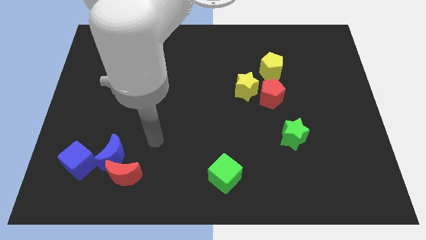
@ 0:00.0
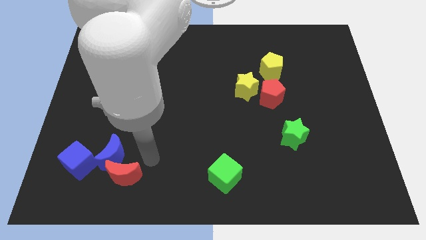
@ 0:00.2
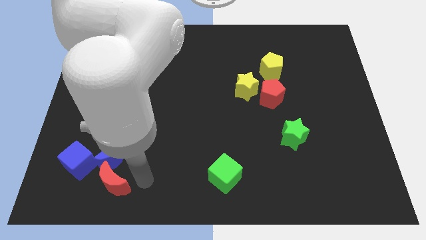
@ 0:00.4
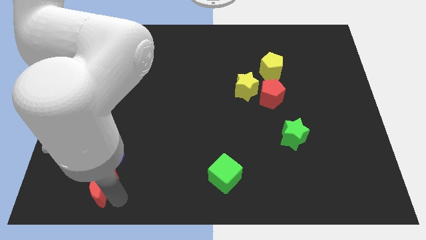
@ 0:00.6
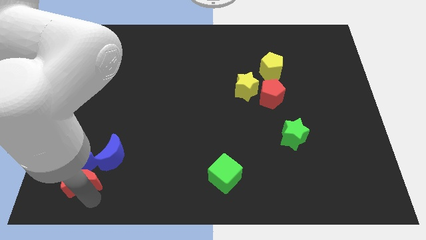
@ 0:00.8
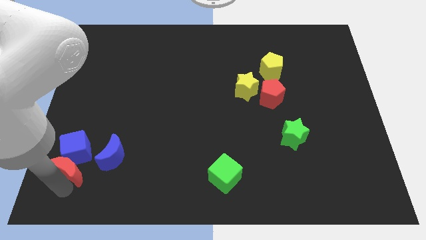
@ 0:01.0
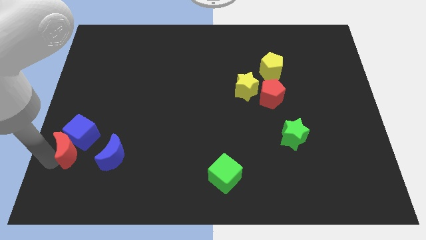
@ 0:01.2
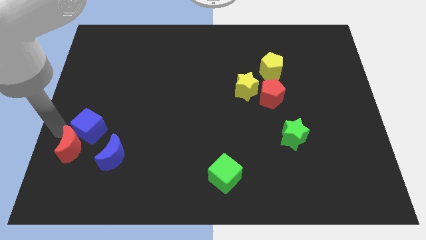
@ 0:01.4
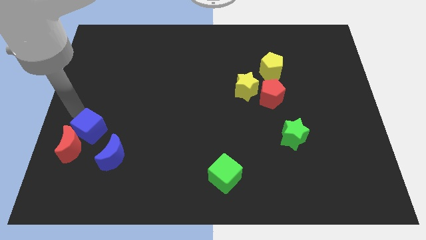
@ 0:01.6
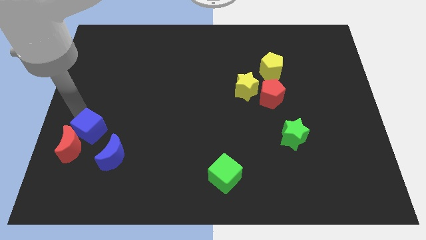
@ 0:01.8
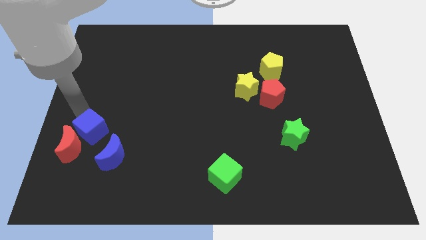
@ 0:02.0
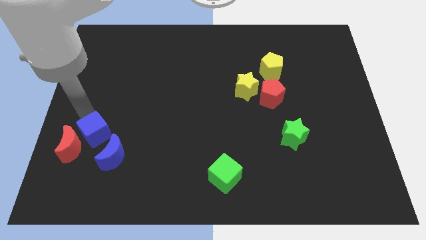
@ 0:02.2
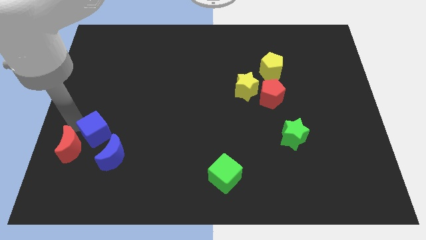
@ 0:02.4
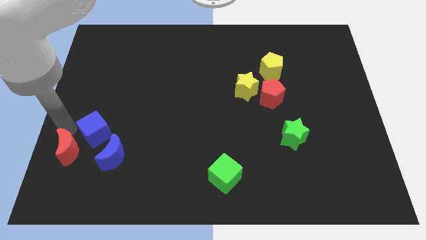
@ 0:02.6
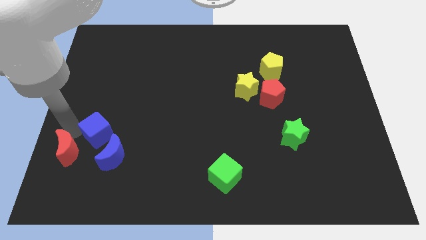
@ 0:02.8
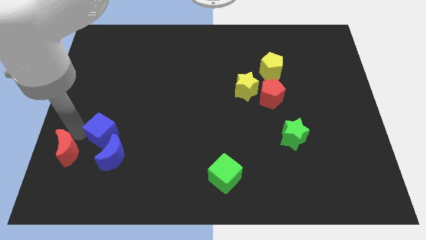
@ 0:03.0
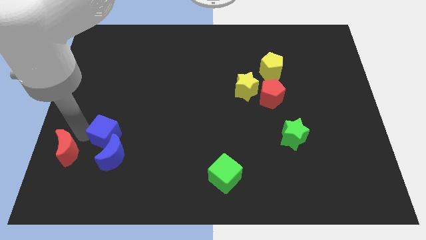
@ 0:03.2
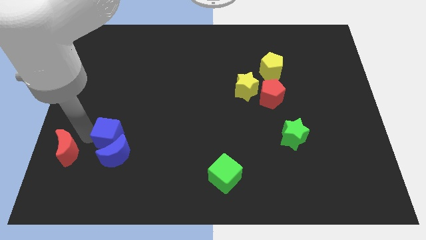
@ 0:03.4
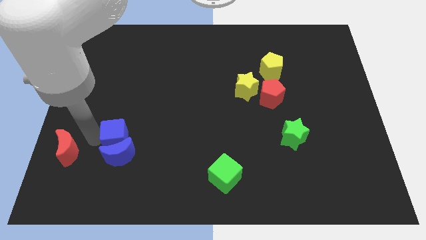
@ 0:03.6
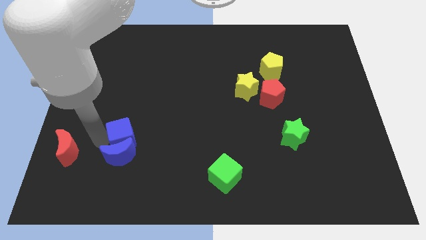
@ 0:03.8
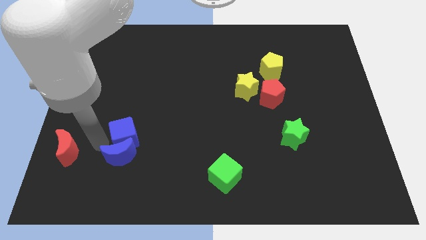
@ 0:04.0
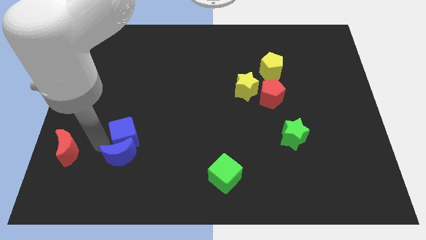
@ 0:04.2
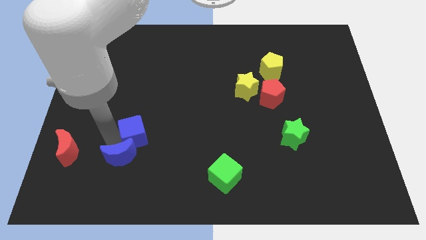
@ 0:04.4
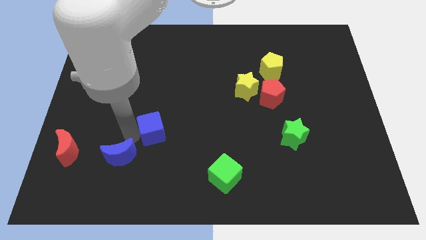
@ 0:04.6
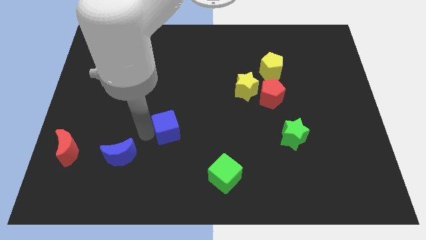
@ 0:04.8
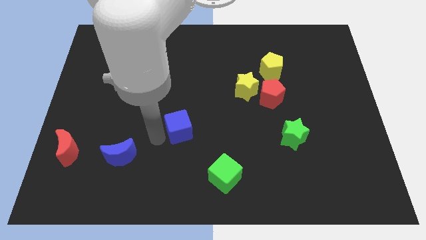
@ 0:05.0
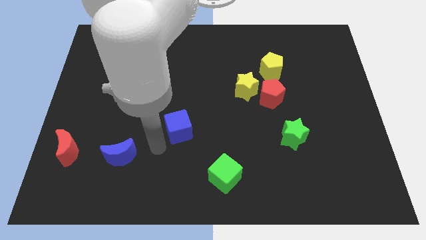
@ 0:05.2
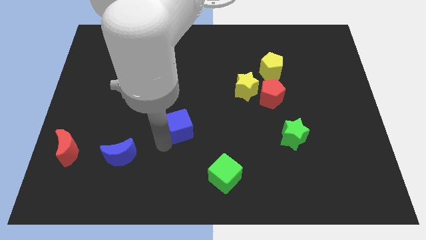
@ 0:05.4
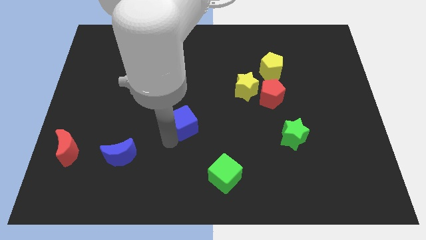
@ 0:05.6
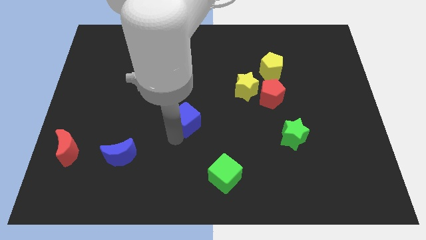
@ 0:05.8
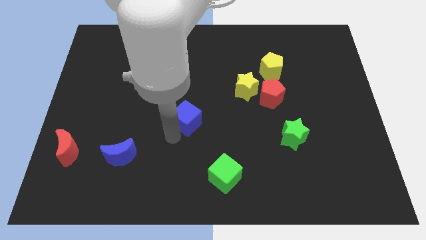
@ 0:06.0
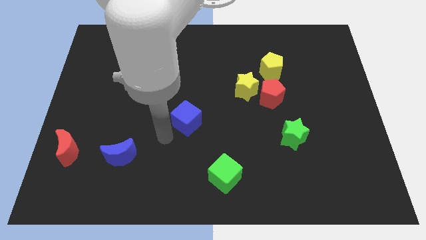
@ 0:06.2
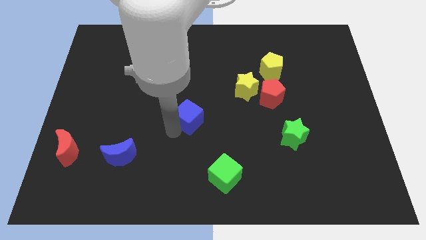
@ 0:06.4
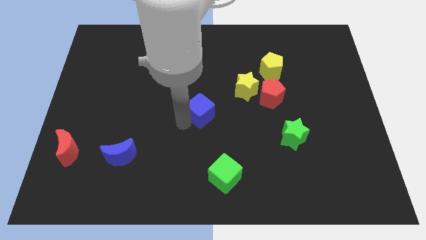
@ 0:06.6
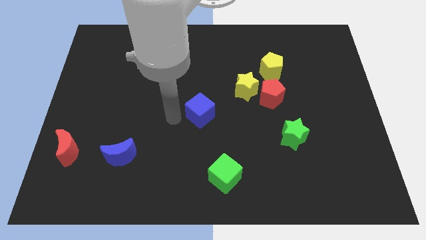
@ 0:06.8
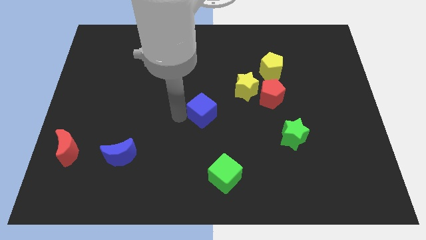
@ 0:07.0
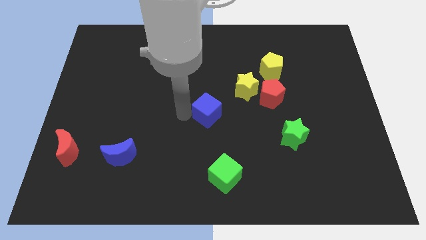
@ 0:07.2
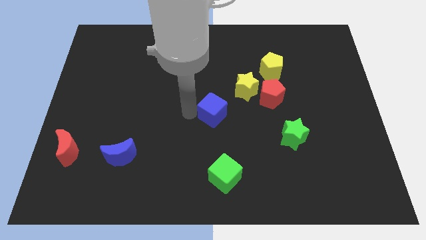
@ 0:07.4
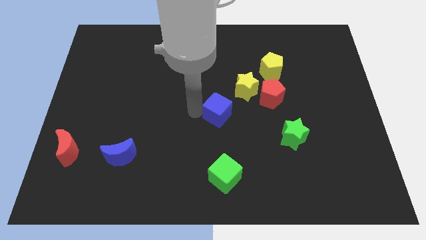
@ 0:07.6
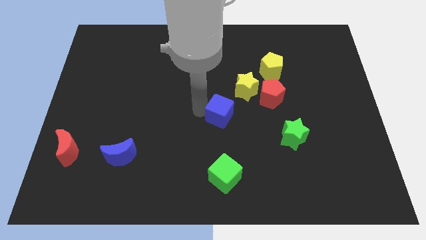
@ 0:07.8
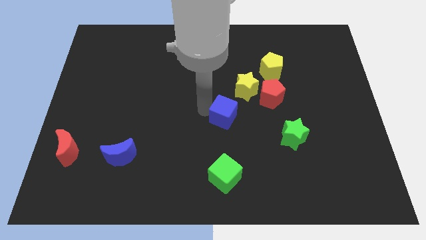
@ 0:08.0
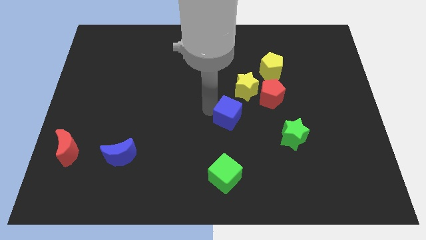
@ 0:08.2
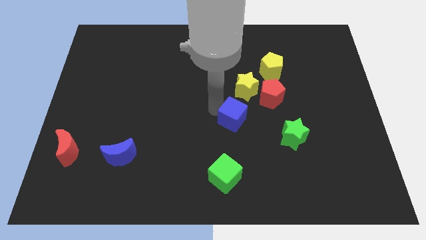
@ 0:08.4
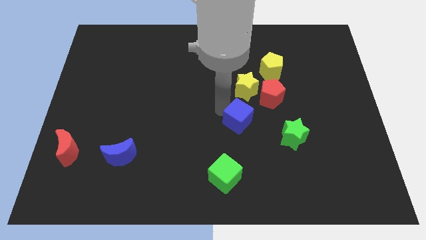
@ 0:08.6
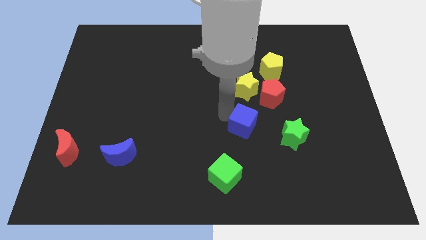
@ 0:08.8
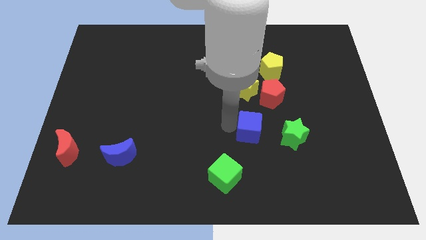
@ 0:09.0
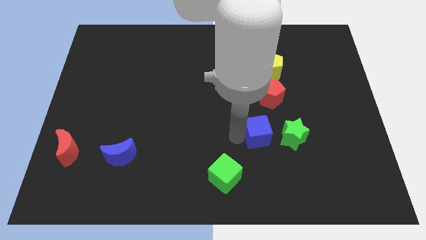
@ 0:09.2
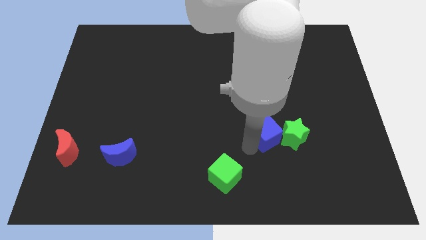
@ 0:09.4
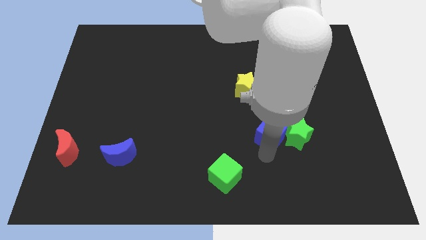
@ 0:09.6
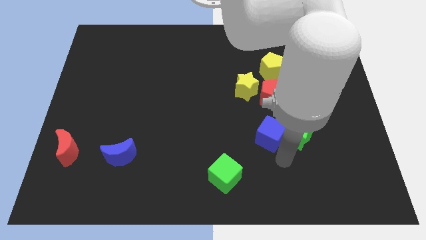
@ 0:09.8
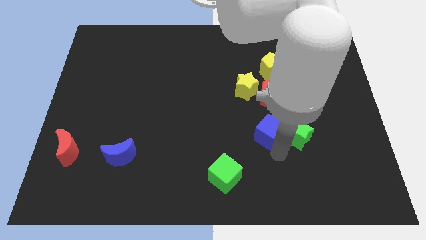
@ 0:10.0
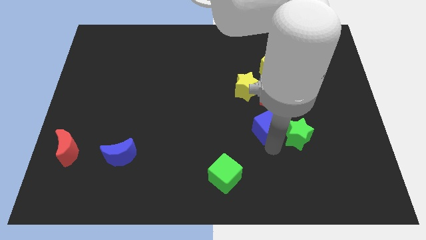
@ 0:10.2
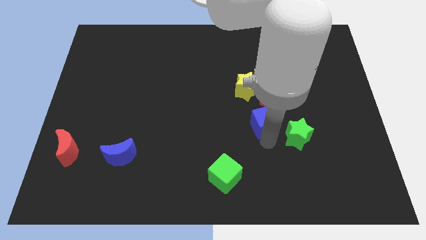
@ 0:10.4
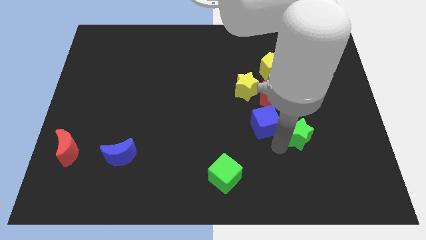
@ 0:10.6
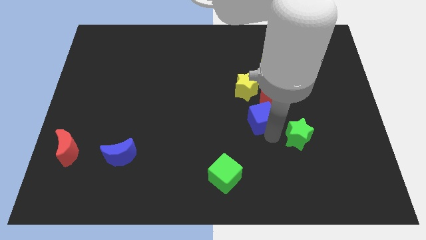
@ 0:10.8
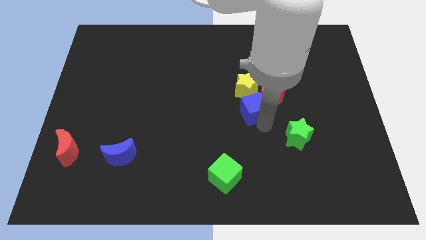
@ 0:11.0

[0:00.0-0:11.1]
slide the blue cube to the red pentagon

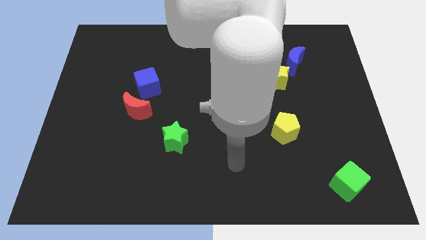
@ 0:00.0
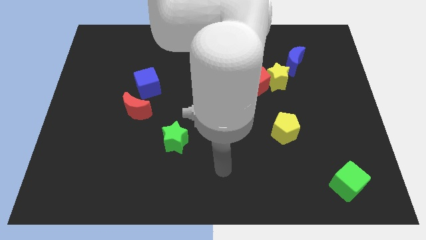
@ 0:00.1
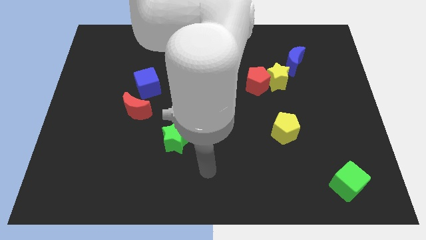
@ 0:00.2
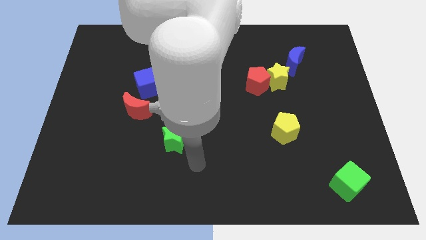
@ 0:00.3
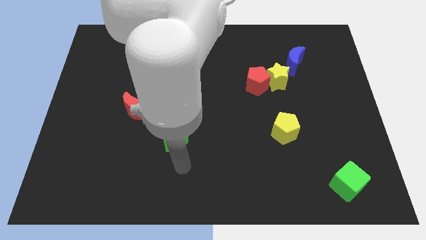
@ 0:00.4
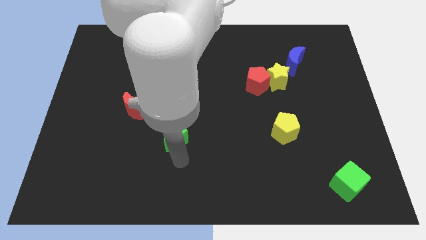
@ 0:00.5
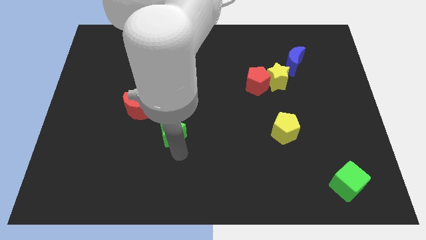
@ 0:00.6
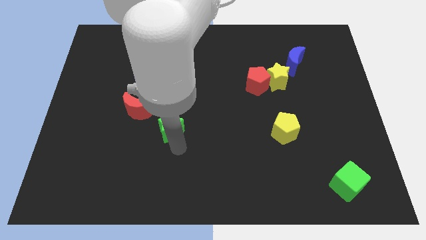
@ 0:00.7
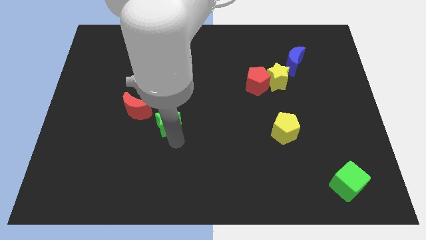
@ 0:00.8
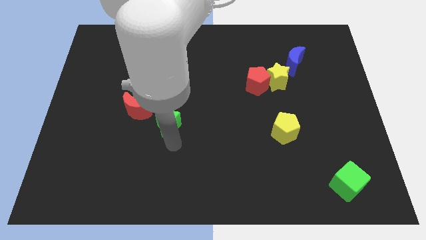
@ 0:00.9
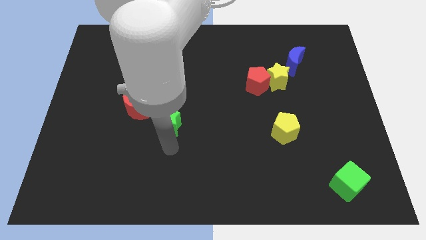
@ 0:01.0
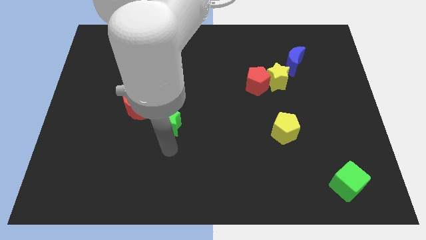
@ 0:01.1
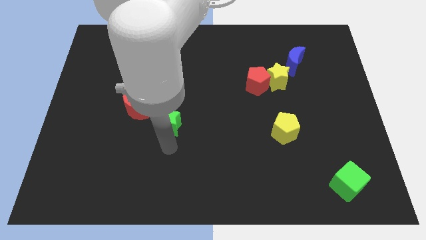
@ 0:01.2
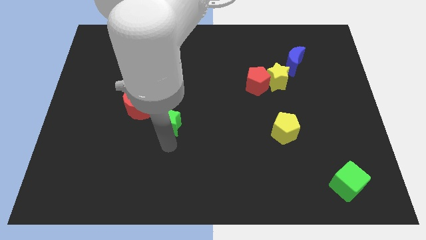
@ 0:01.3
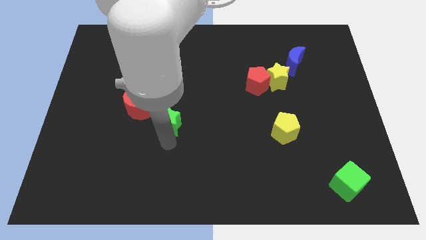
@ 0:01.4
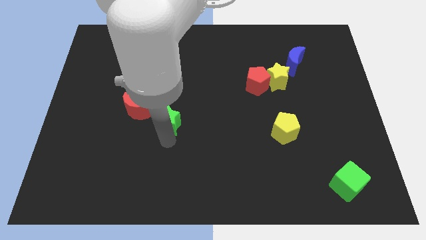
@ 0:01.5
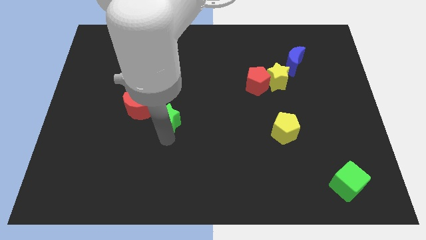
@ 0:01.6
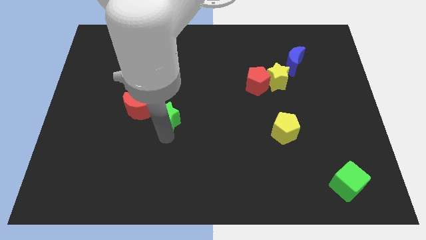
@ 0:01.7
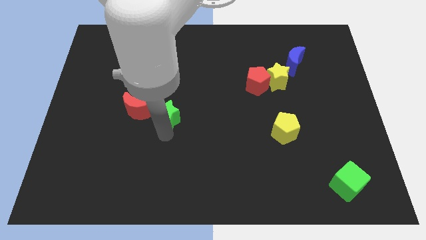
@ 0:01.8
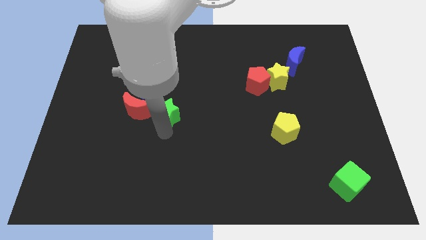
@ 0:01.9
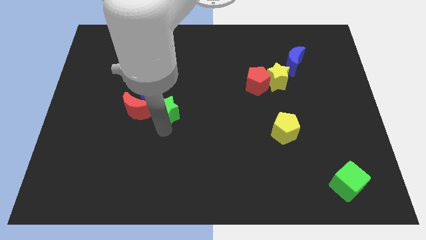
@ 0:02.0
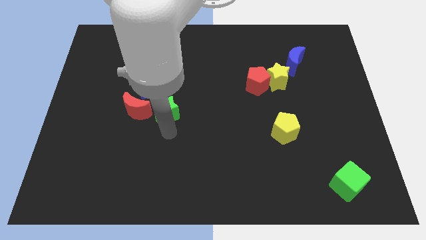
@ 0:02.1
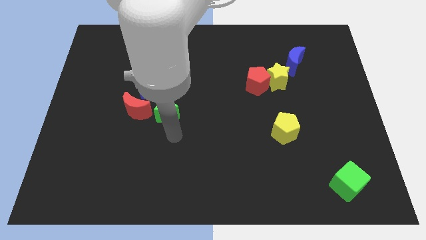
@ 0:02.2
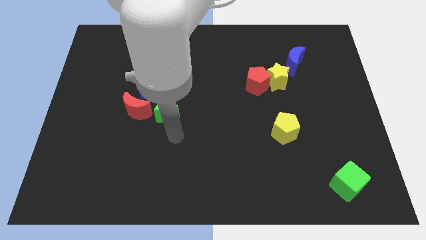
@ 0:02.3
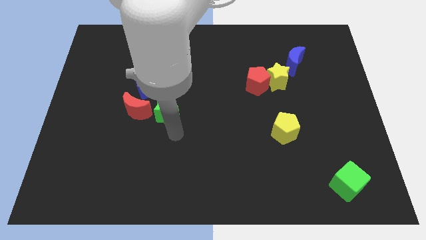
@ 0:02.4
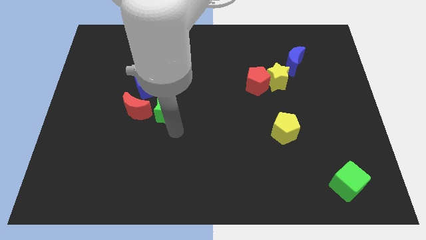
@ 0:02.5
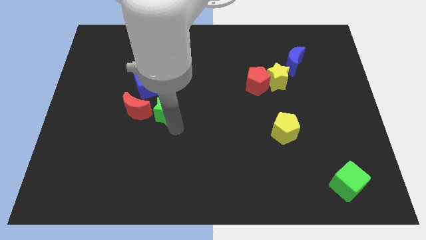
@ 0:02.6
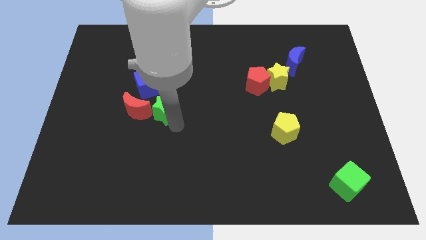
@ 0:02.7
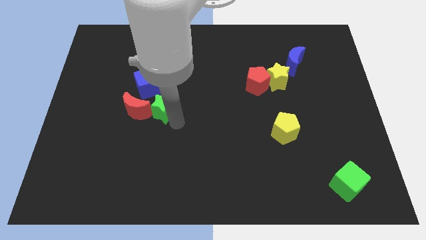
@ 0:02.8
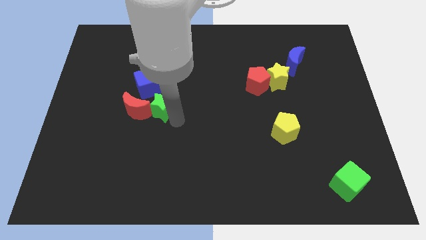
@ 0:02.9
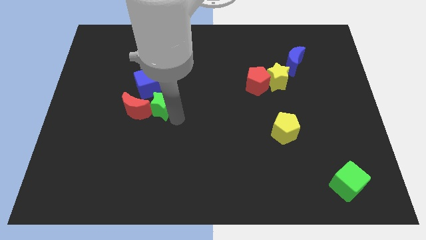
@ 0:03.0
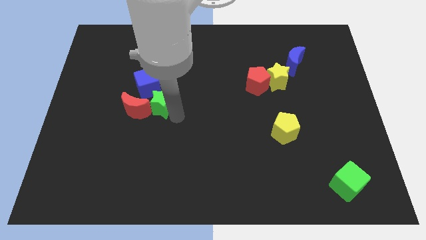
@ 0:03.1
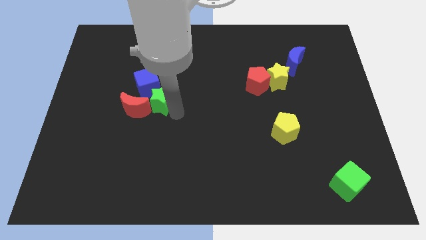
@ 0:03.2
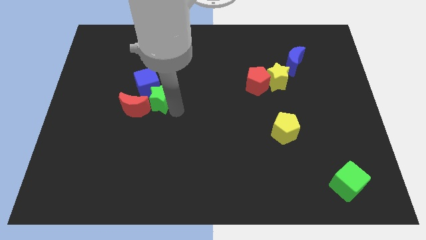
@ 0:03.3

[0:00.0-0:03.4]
push the green star towards the blue cube
